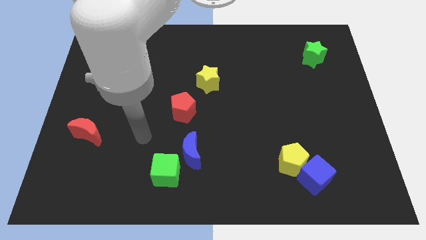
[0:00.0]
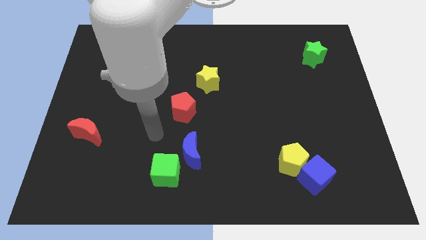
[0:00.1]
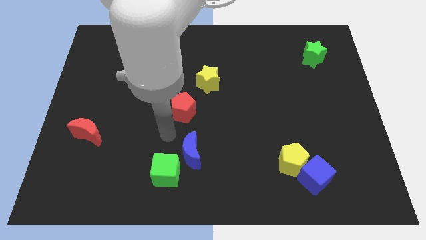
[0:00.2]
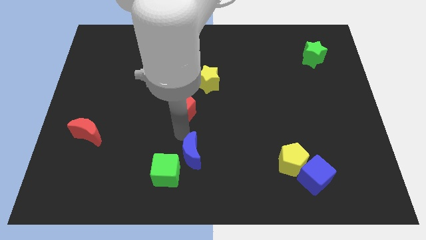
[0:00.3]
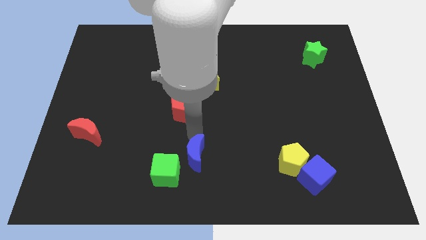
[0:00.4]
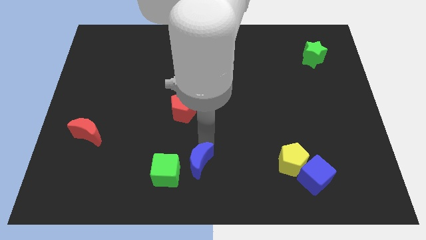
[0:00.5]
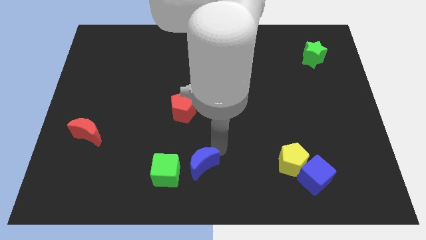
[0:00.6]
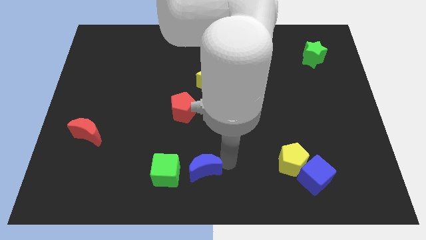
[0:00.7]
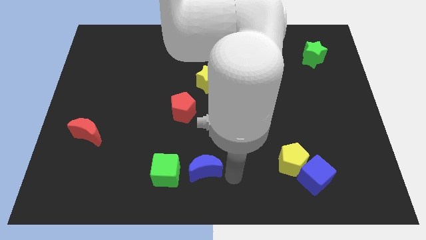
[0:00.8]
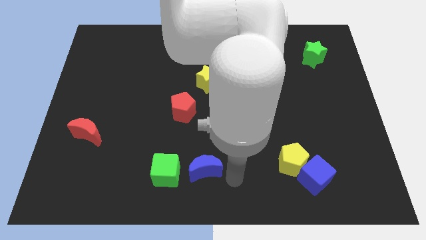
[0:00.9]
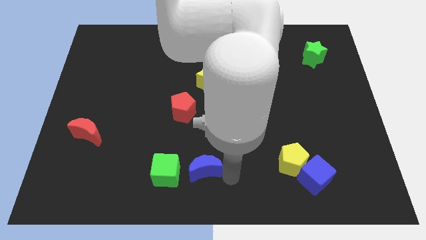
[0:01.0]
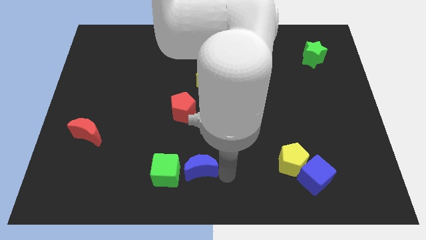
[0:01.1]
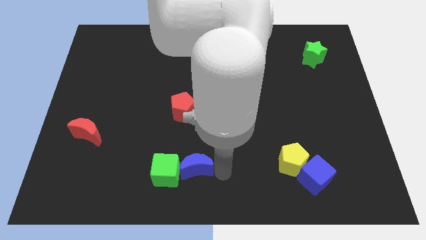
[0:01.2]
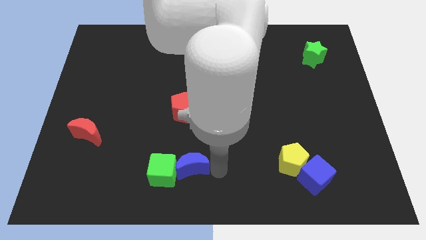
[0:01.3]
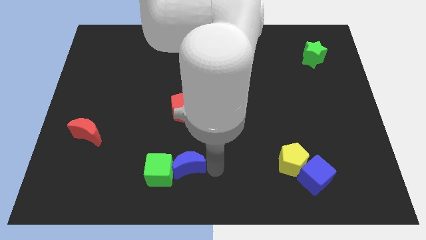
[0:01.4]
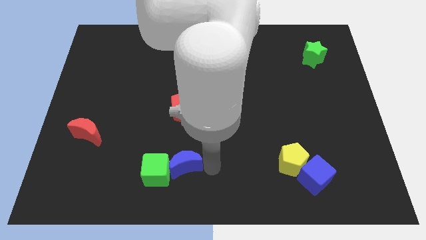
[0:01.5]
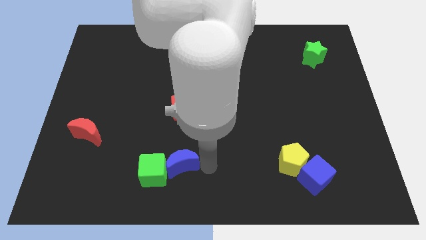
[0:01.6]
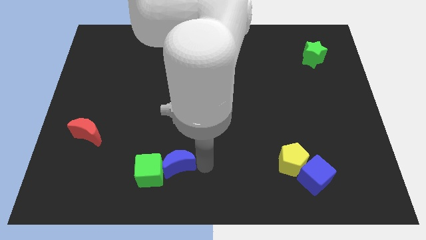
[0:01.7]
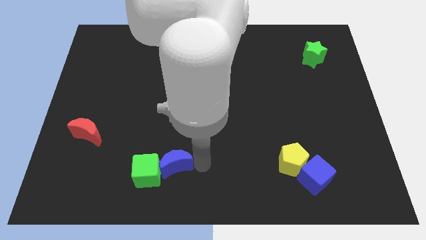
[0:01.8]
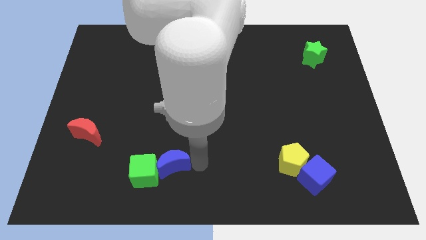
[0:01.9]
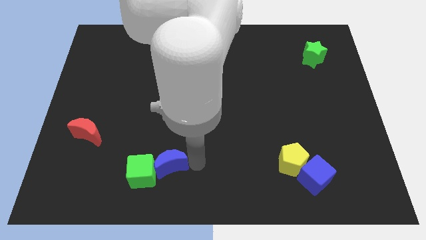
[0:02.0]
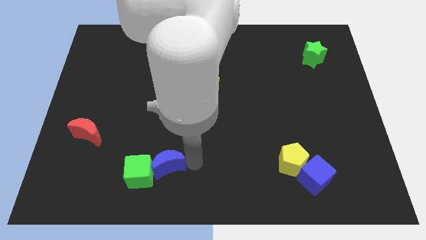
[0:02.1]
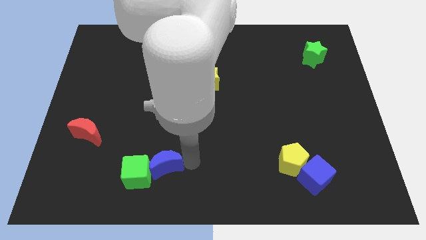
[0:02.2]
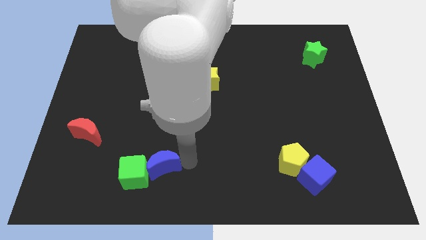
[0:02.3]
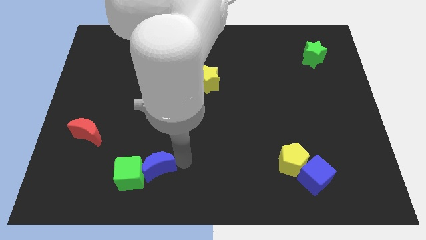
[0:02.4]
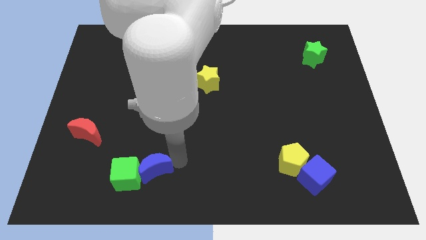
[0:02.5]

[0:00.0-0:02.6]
slightly move the blue moon to the left

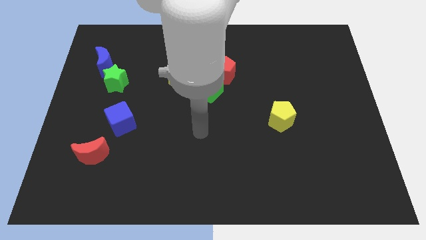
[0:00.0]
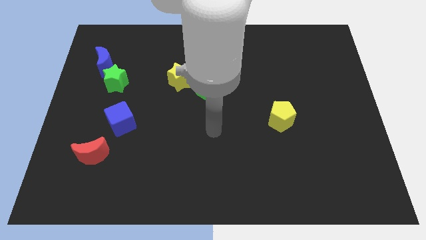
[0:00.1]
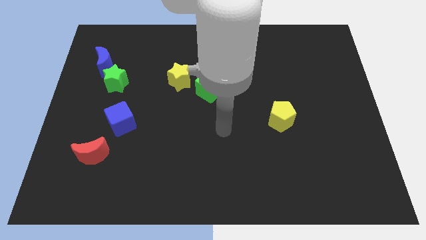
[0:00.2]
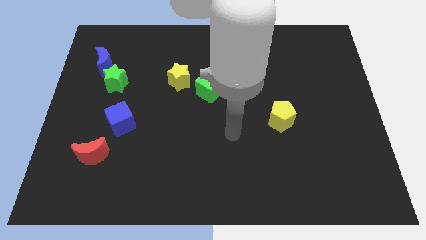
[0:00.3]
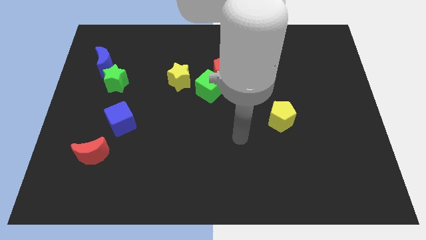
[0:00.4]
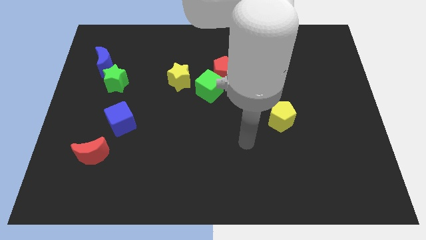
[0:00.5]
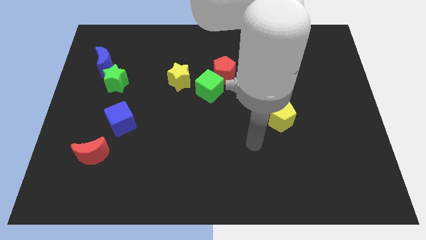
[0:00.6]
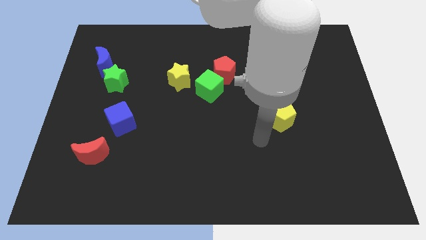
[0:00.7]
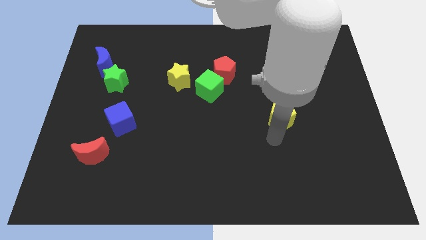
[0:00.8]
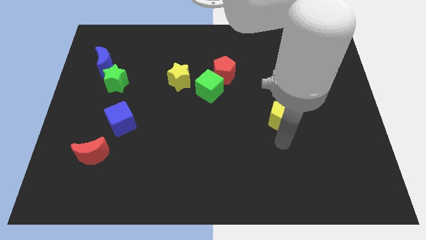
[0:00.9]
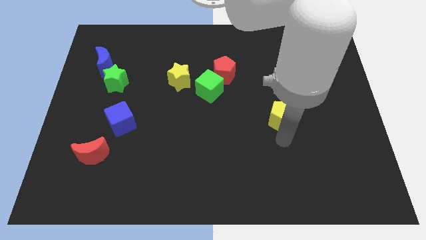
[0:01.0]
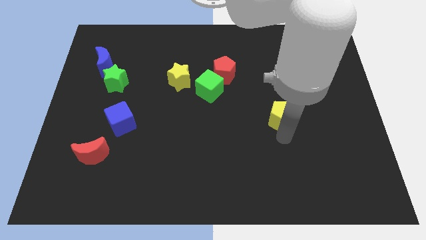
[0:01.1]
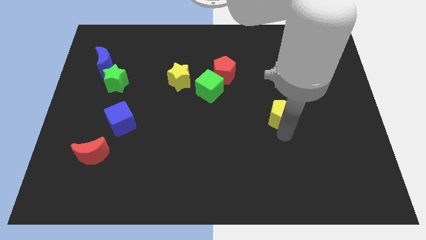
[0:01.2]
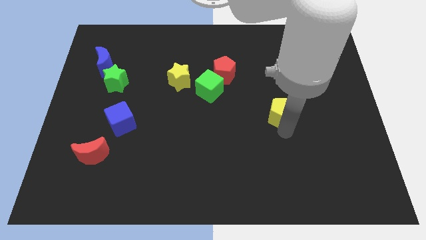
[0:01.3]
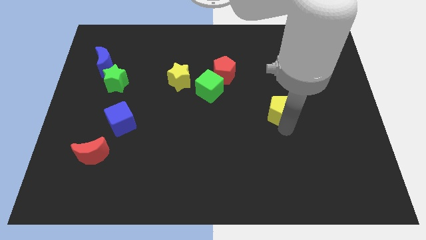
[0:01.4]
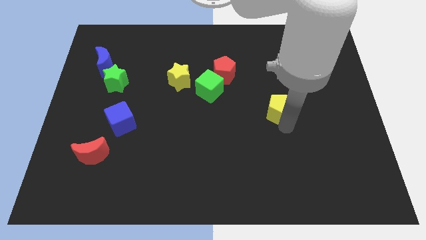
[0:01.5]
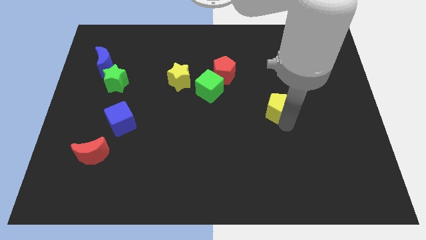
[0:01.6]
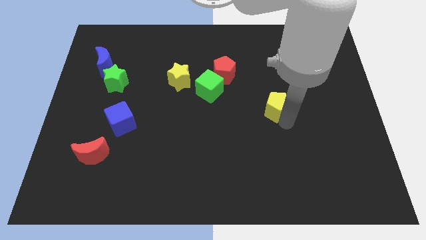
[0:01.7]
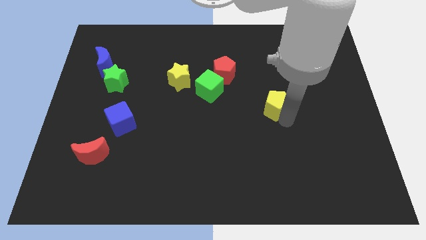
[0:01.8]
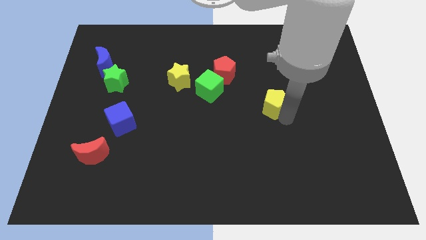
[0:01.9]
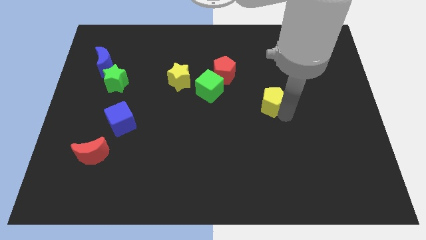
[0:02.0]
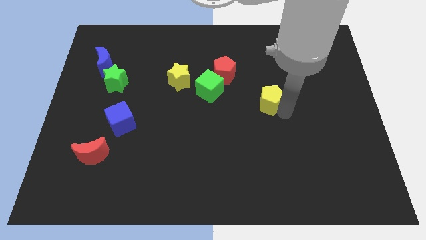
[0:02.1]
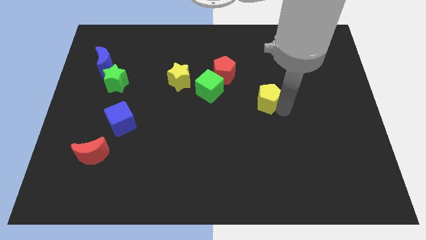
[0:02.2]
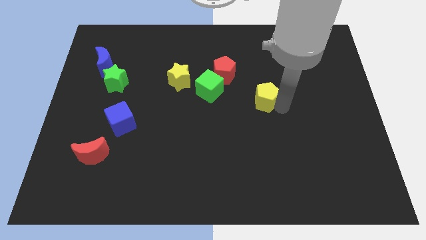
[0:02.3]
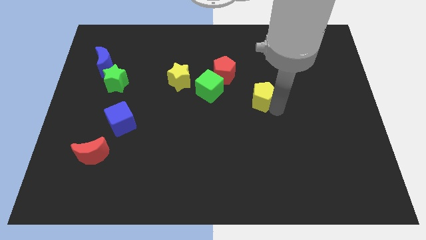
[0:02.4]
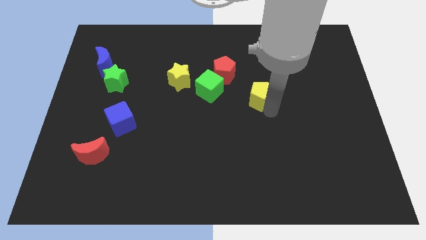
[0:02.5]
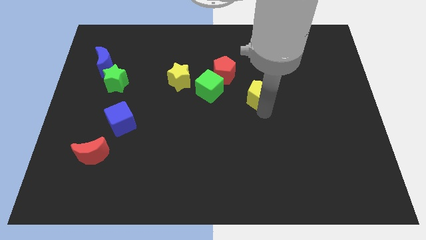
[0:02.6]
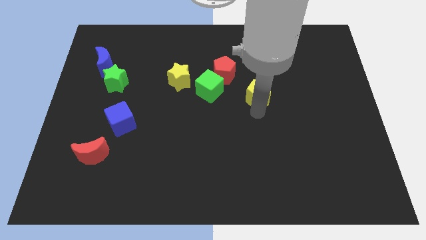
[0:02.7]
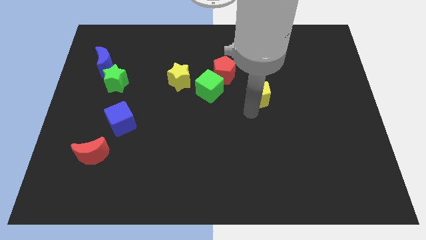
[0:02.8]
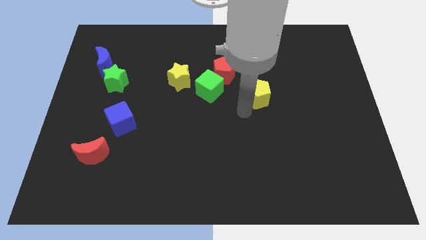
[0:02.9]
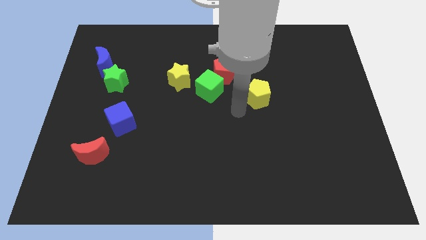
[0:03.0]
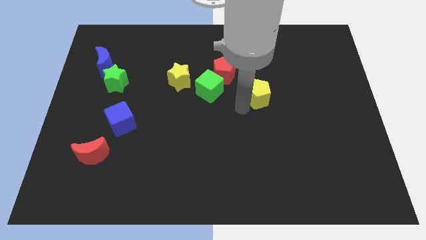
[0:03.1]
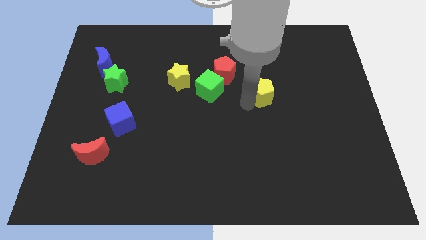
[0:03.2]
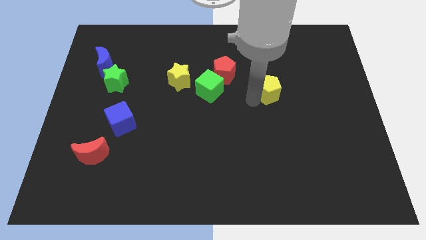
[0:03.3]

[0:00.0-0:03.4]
slide the yellow pentagon somewhat upwards

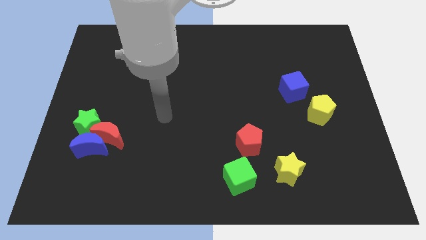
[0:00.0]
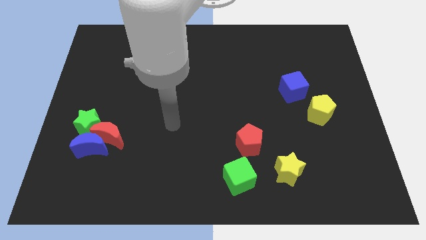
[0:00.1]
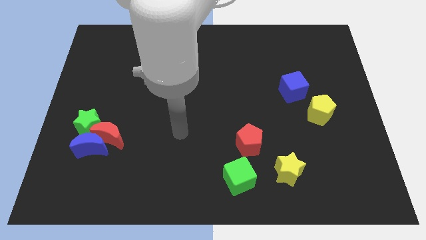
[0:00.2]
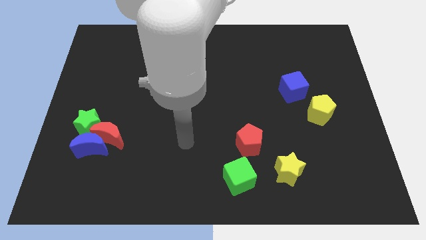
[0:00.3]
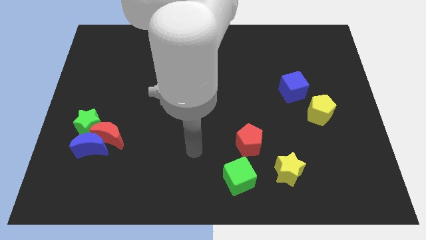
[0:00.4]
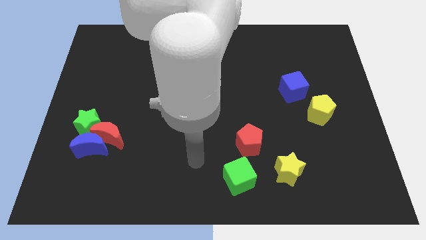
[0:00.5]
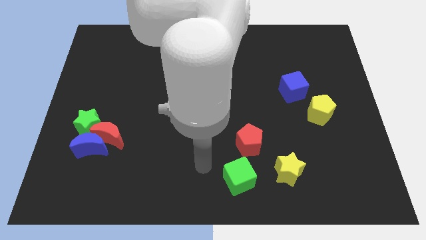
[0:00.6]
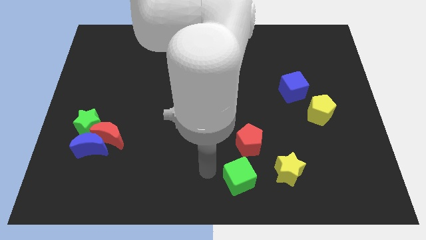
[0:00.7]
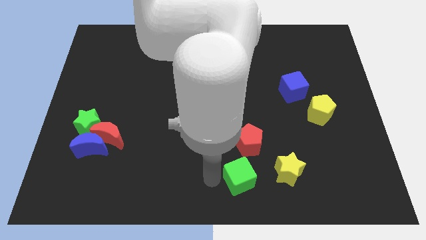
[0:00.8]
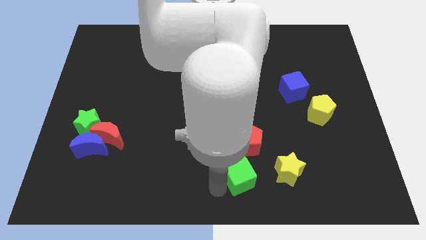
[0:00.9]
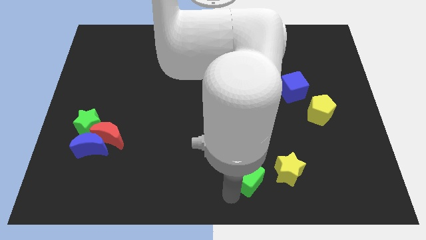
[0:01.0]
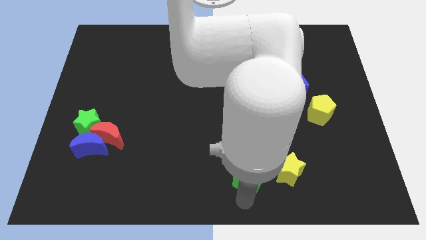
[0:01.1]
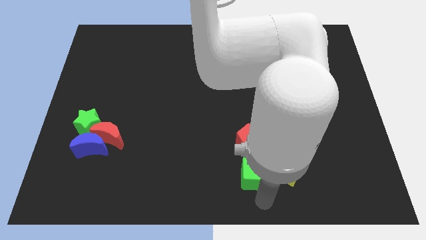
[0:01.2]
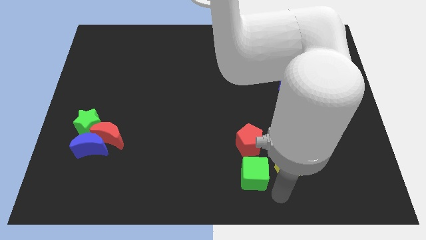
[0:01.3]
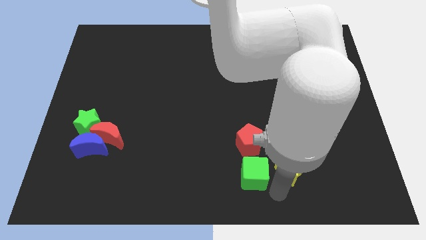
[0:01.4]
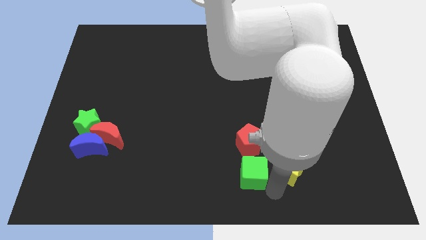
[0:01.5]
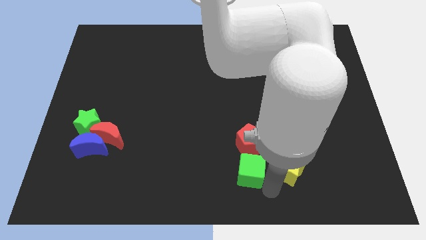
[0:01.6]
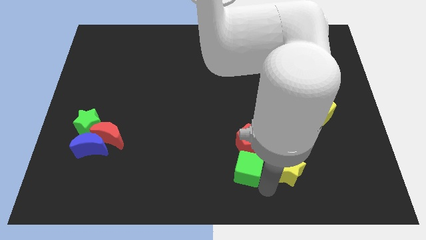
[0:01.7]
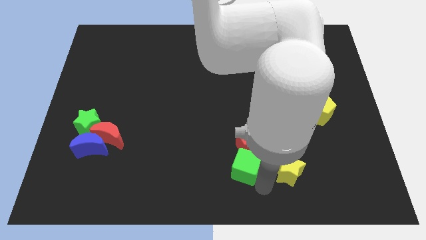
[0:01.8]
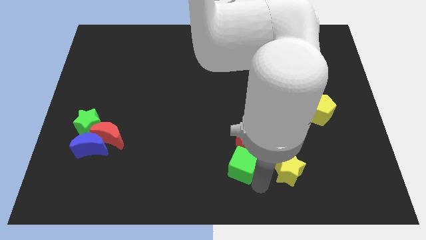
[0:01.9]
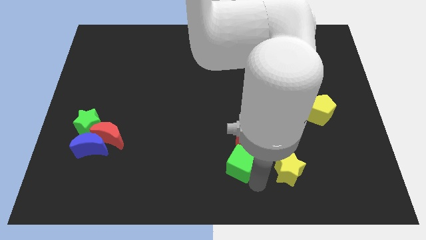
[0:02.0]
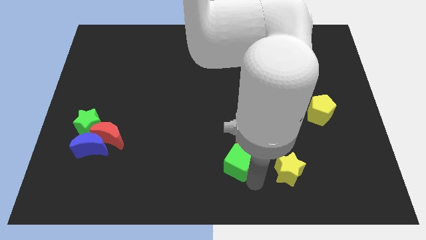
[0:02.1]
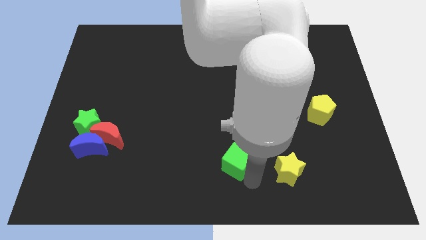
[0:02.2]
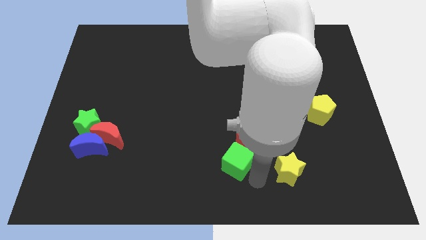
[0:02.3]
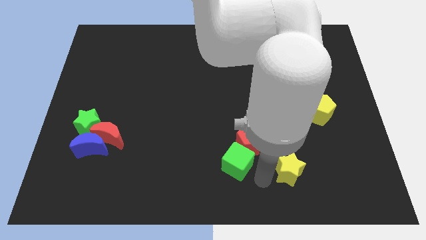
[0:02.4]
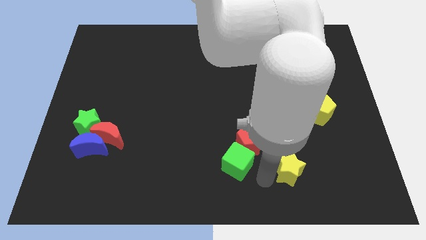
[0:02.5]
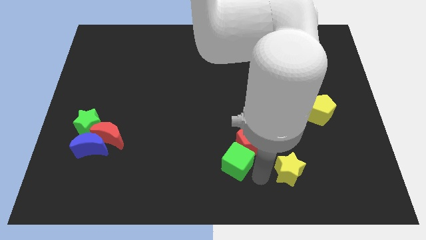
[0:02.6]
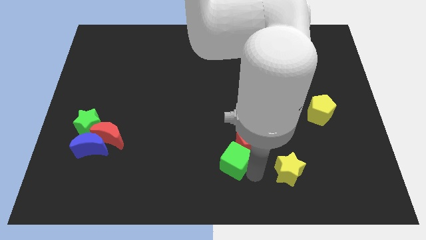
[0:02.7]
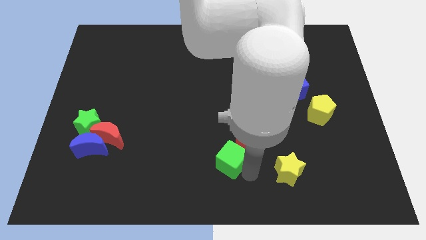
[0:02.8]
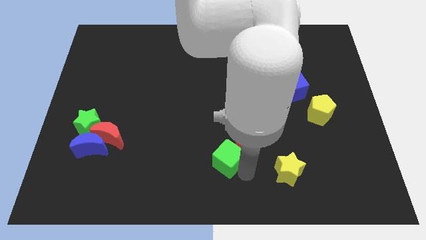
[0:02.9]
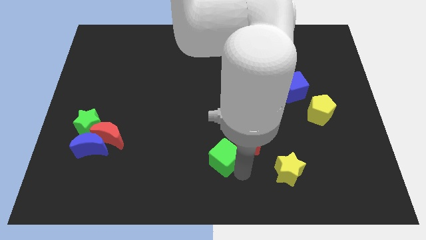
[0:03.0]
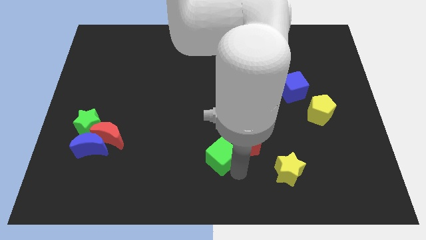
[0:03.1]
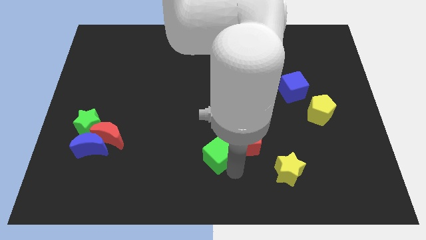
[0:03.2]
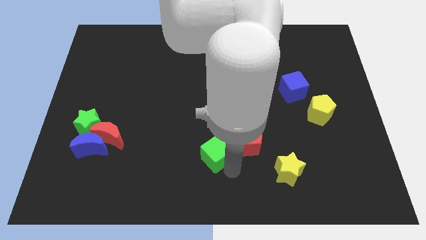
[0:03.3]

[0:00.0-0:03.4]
slide the green cube a little upwards and then left
